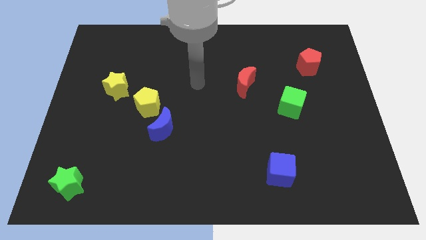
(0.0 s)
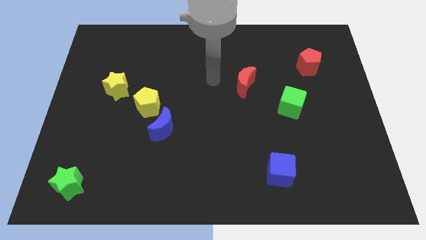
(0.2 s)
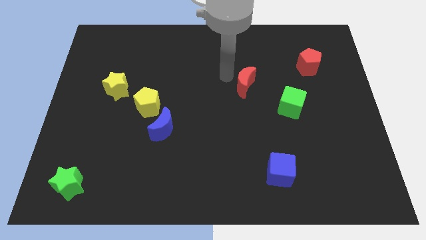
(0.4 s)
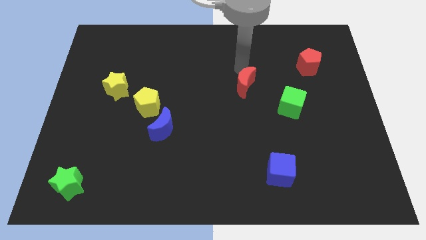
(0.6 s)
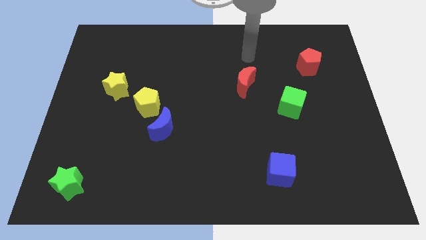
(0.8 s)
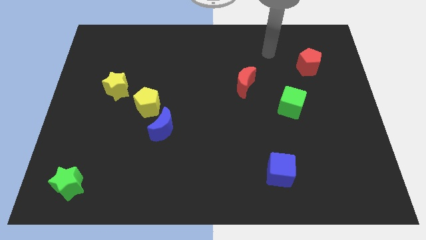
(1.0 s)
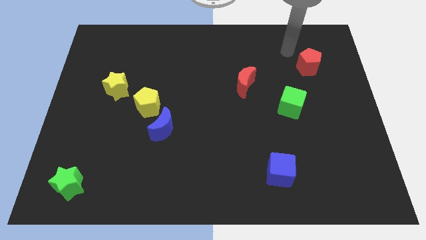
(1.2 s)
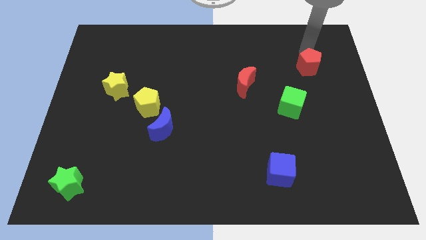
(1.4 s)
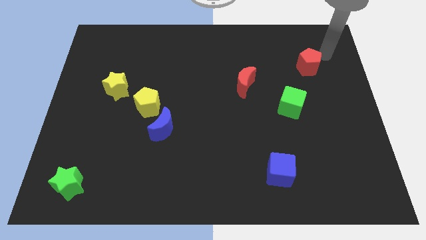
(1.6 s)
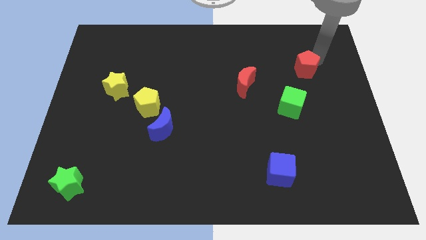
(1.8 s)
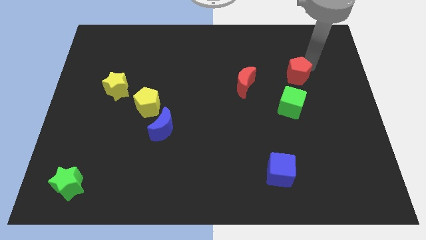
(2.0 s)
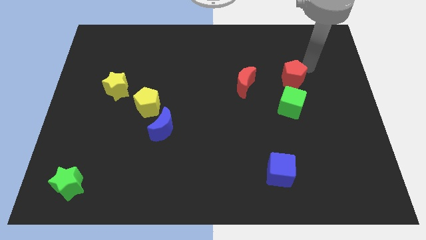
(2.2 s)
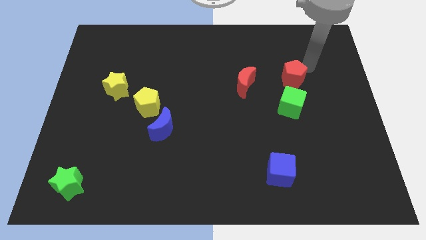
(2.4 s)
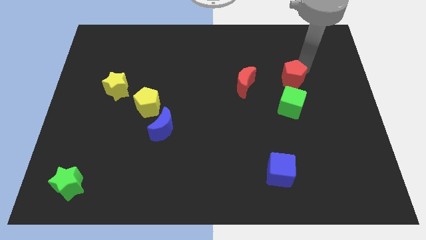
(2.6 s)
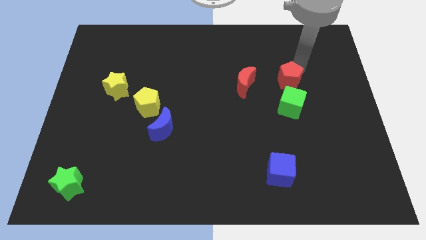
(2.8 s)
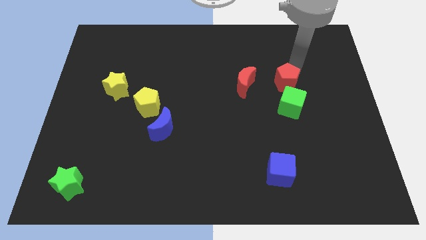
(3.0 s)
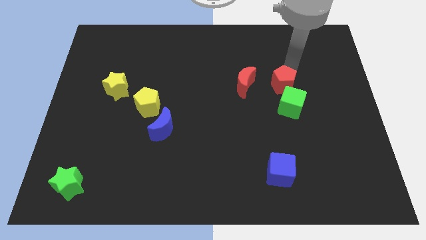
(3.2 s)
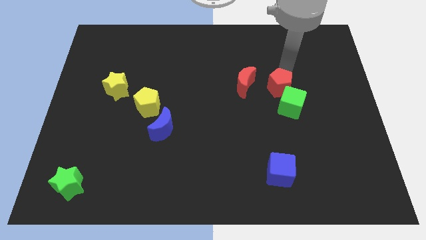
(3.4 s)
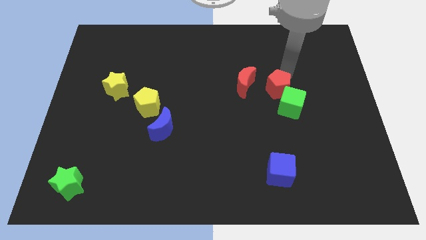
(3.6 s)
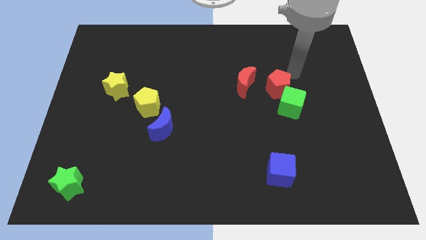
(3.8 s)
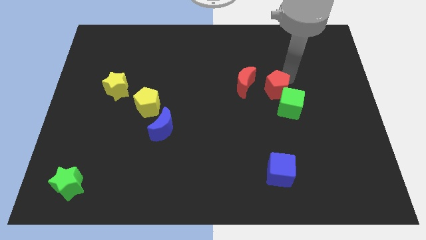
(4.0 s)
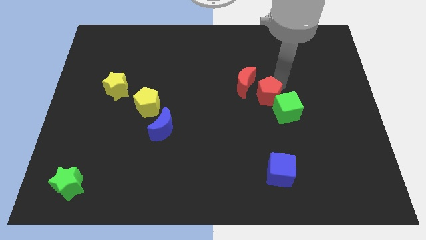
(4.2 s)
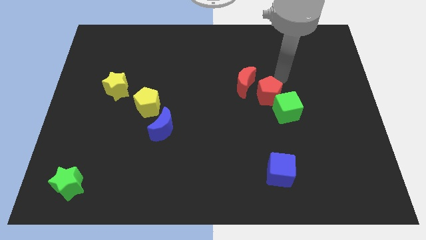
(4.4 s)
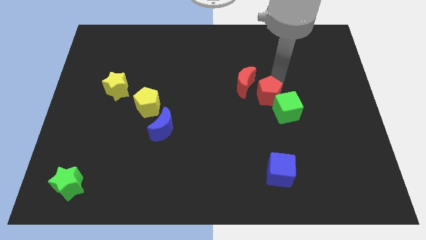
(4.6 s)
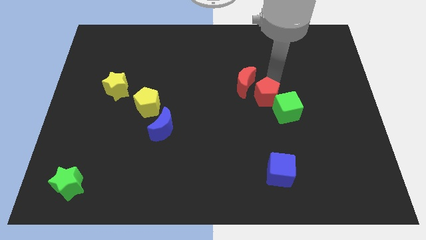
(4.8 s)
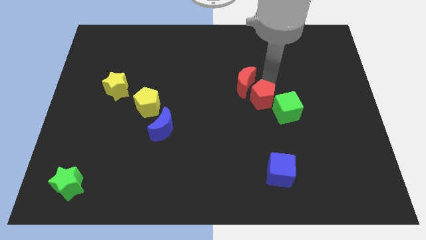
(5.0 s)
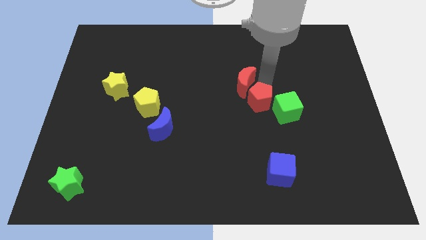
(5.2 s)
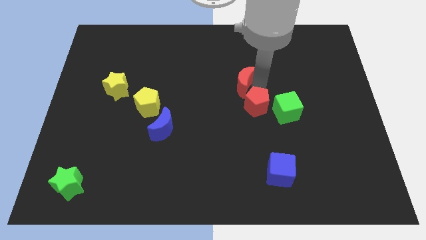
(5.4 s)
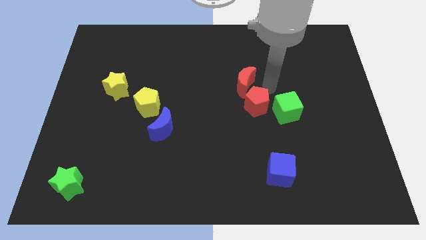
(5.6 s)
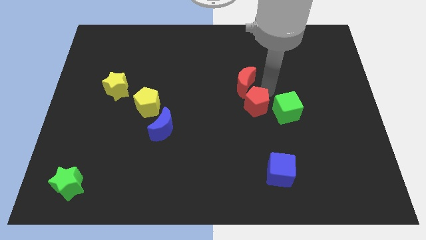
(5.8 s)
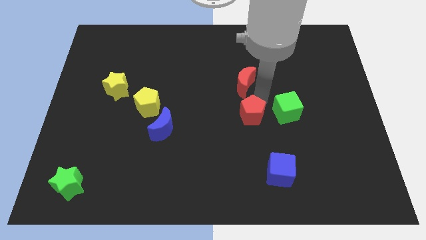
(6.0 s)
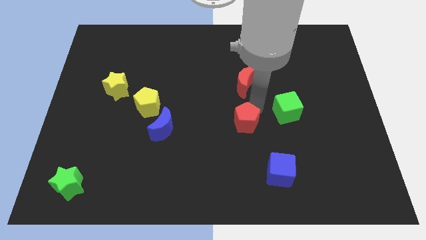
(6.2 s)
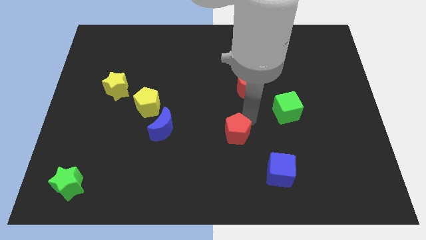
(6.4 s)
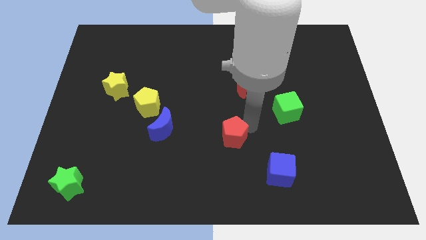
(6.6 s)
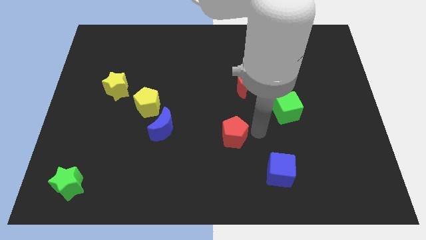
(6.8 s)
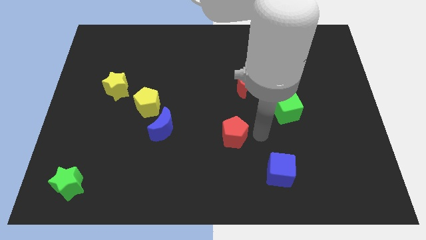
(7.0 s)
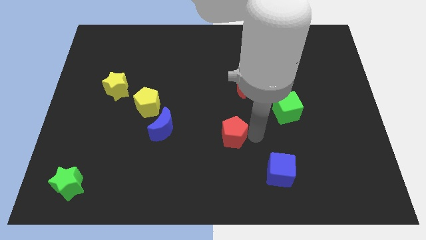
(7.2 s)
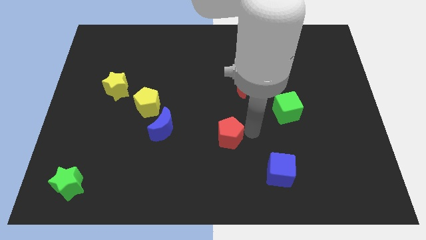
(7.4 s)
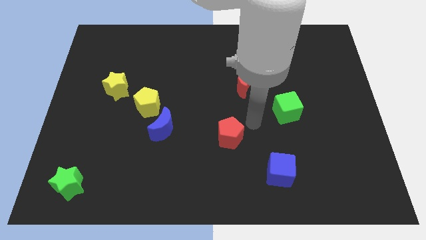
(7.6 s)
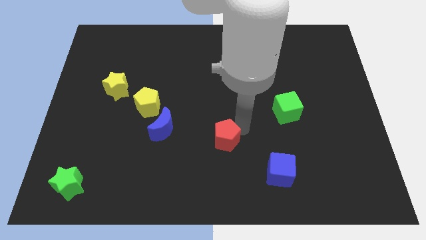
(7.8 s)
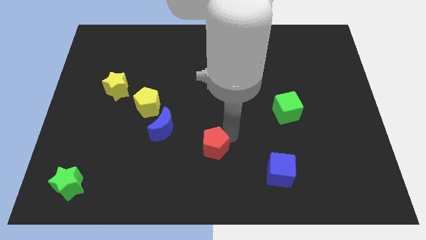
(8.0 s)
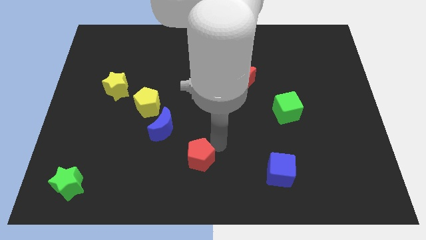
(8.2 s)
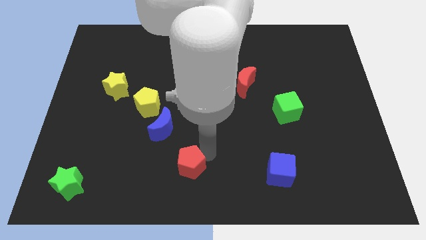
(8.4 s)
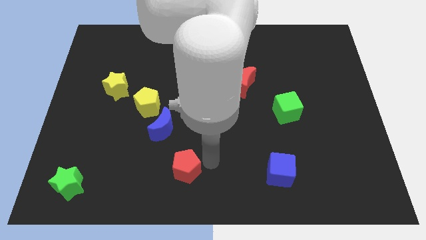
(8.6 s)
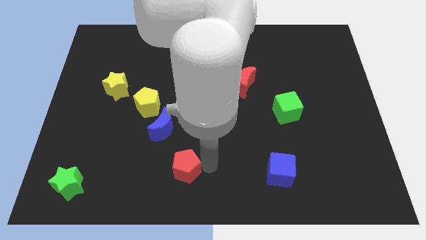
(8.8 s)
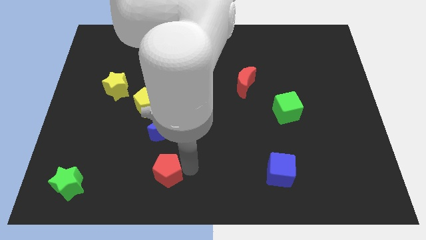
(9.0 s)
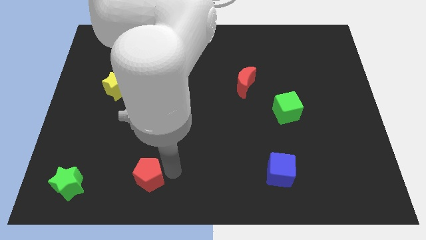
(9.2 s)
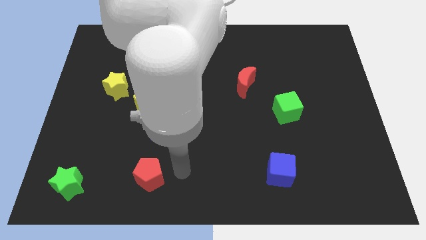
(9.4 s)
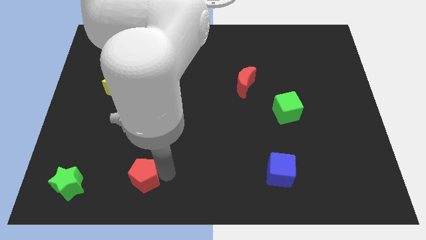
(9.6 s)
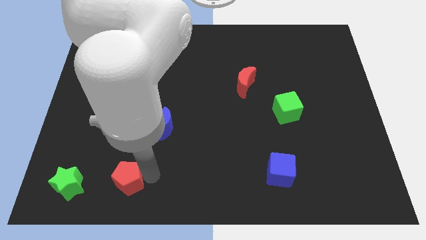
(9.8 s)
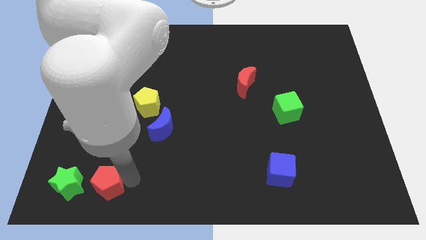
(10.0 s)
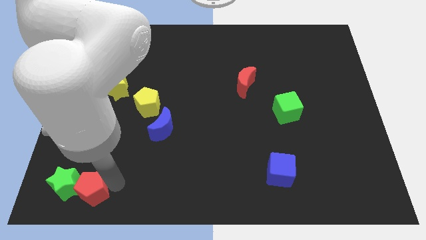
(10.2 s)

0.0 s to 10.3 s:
push the red pentagon next to the green star

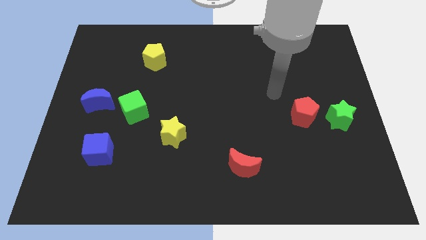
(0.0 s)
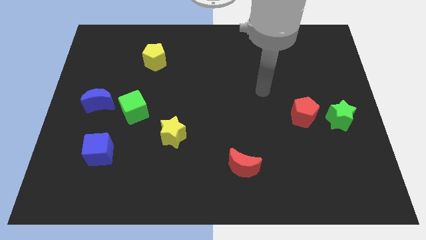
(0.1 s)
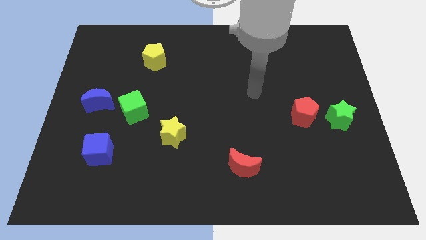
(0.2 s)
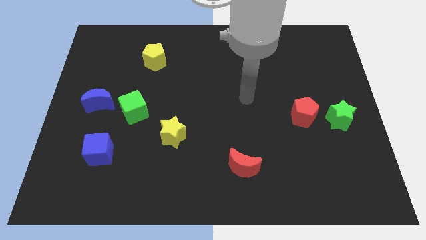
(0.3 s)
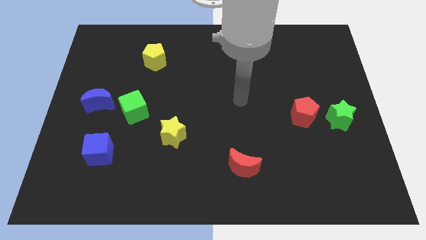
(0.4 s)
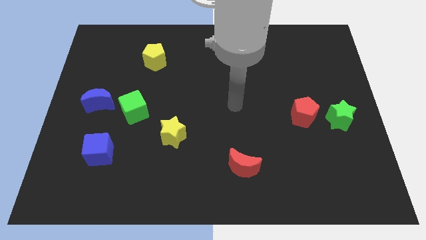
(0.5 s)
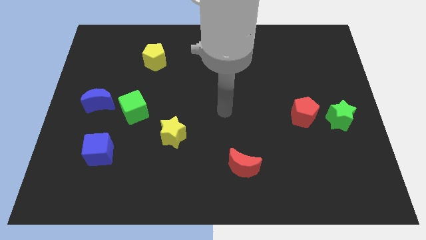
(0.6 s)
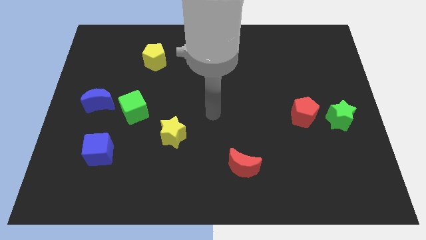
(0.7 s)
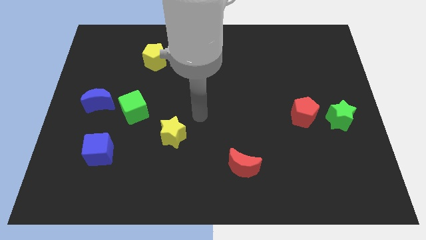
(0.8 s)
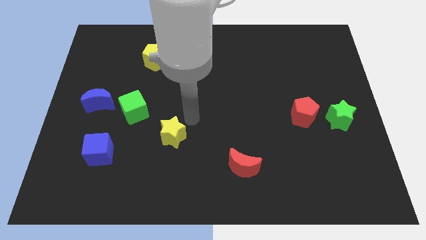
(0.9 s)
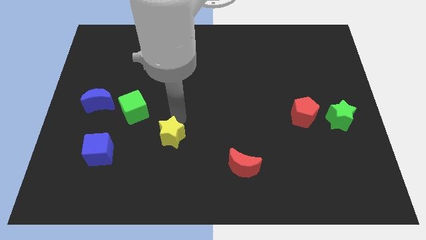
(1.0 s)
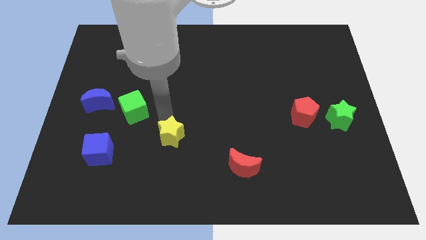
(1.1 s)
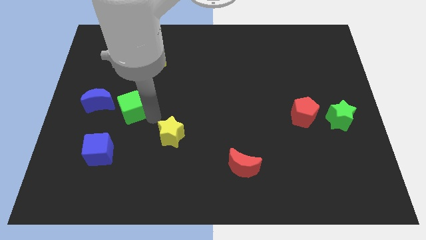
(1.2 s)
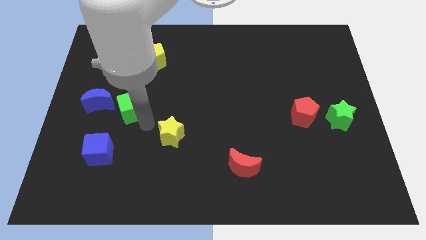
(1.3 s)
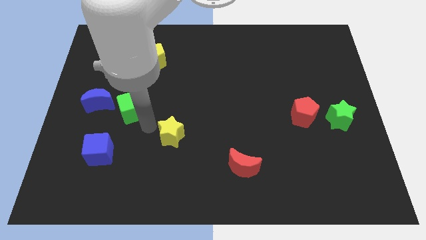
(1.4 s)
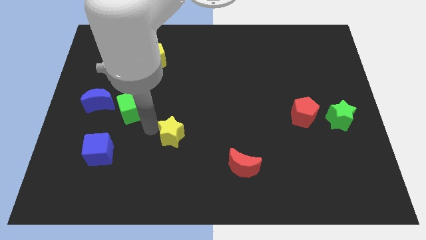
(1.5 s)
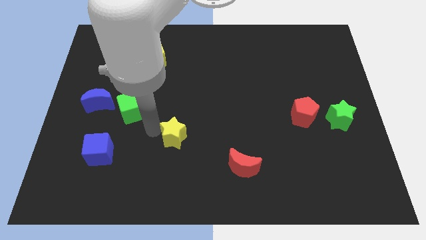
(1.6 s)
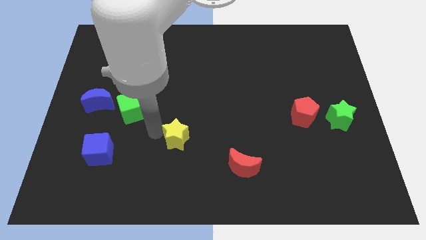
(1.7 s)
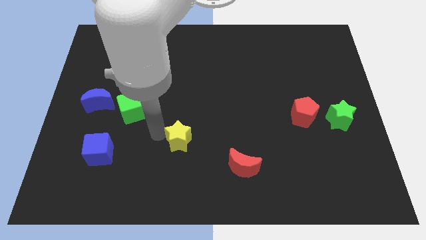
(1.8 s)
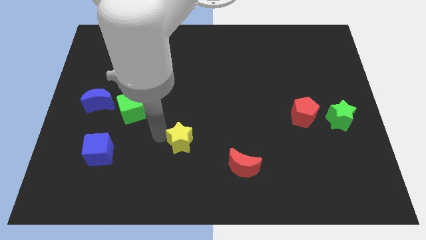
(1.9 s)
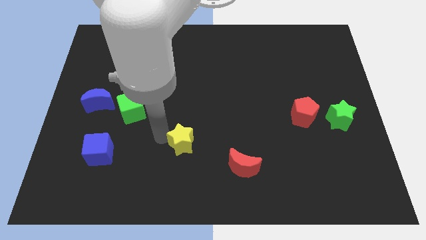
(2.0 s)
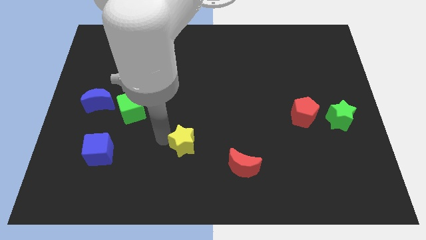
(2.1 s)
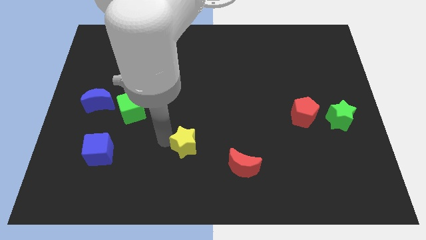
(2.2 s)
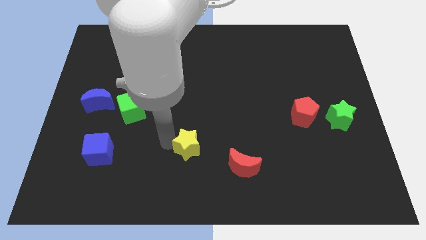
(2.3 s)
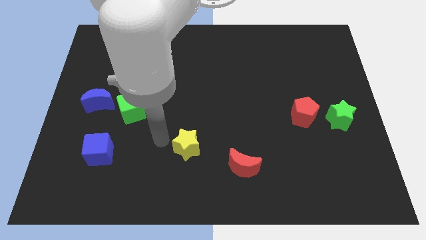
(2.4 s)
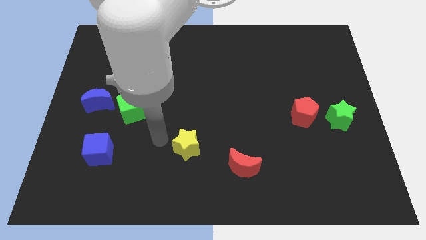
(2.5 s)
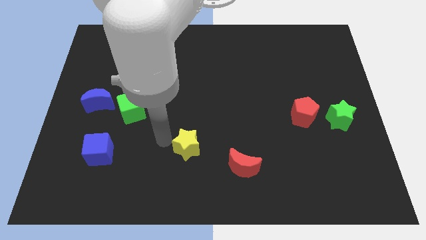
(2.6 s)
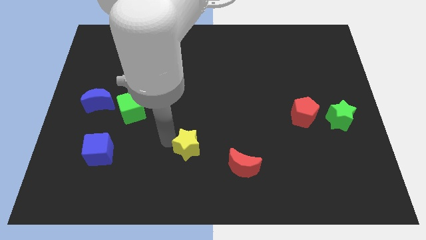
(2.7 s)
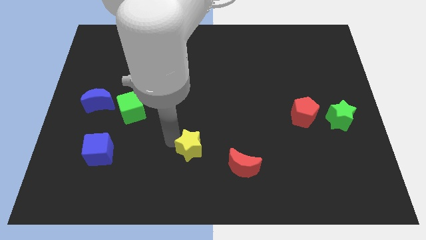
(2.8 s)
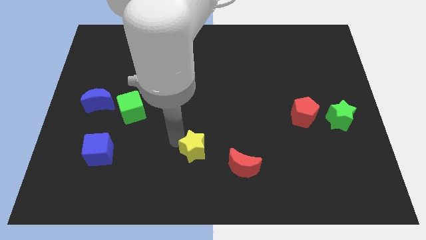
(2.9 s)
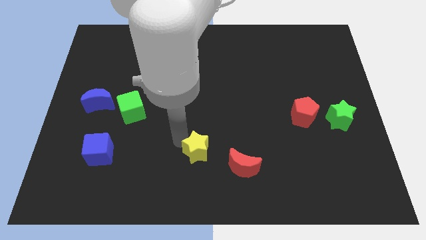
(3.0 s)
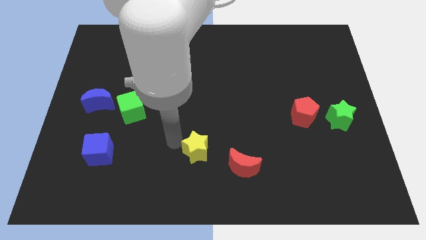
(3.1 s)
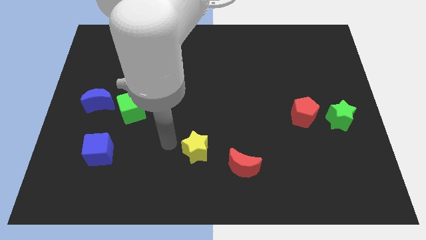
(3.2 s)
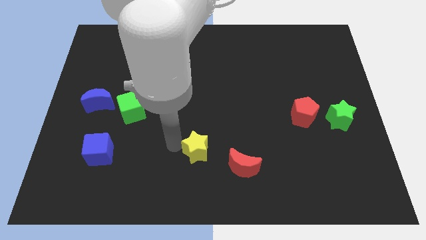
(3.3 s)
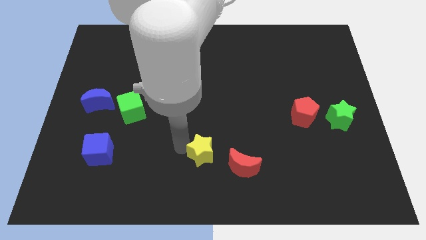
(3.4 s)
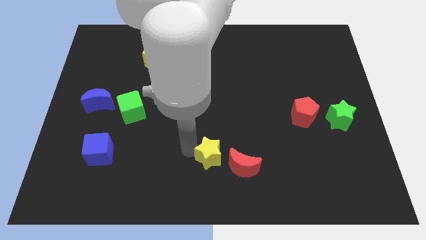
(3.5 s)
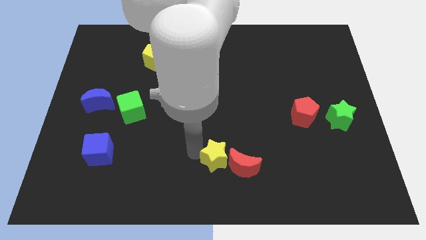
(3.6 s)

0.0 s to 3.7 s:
put the yellow star to the red moon
